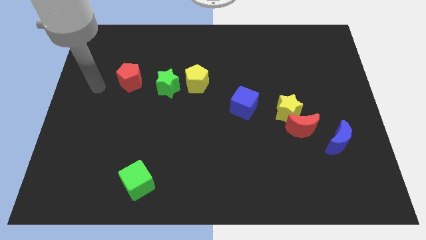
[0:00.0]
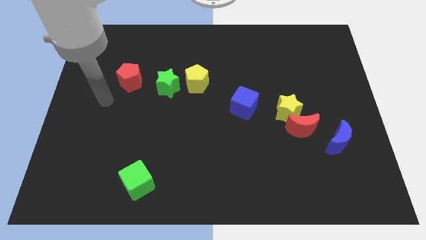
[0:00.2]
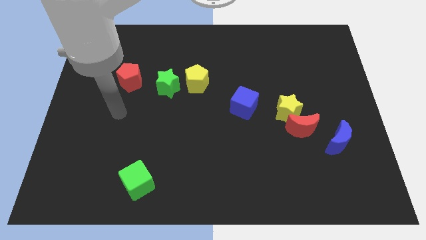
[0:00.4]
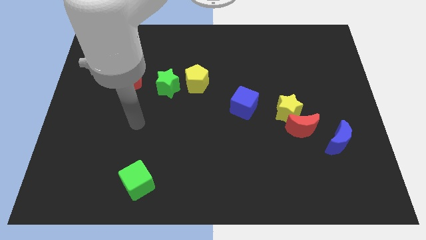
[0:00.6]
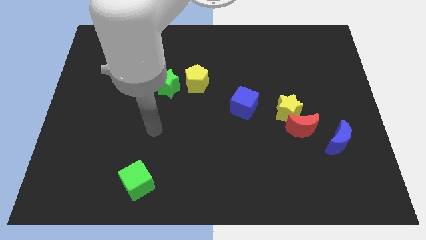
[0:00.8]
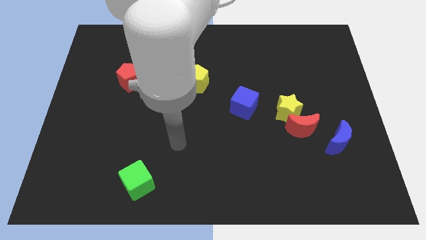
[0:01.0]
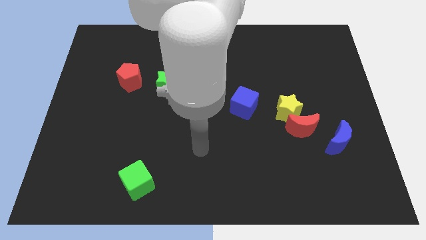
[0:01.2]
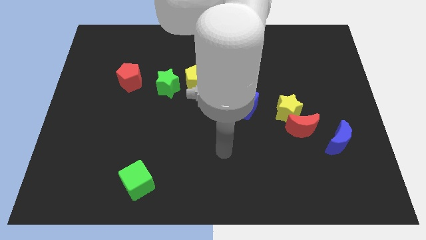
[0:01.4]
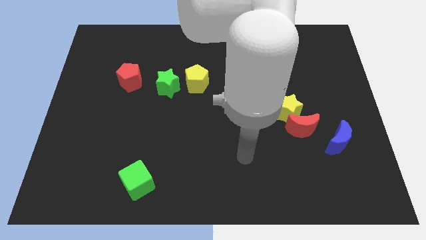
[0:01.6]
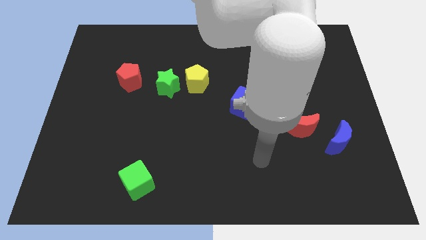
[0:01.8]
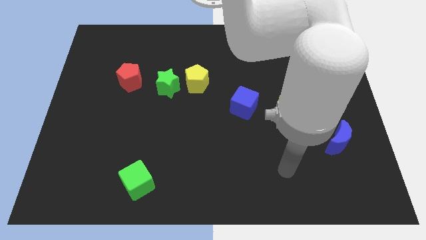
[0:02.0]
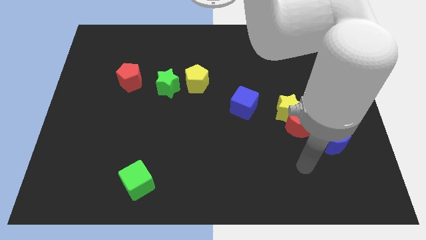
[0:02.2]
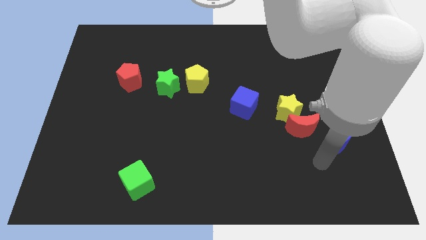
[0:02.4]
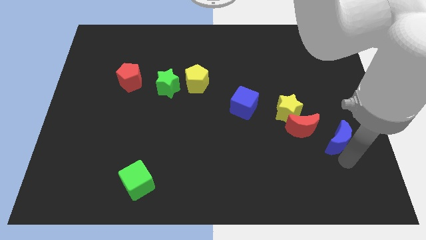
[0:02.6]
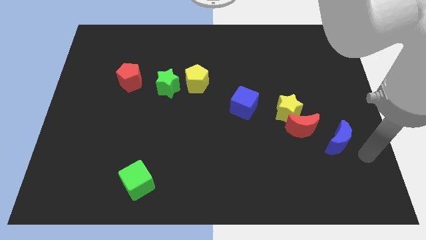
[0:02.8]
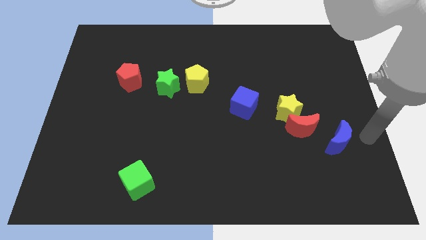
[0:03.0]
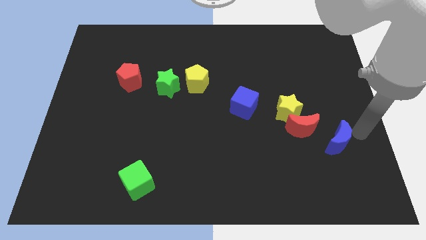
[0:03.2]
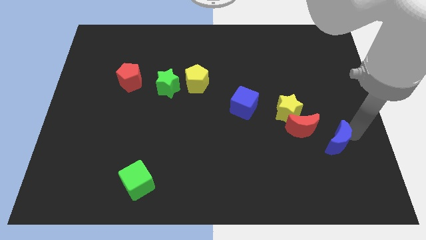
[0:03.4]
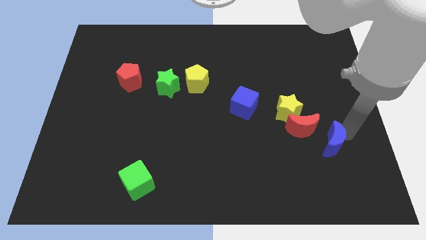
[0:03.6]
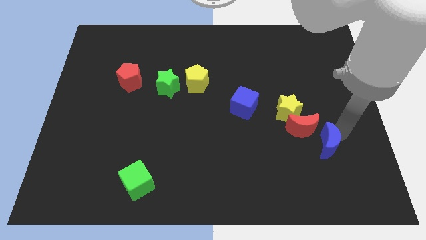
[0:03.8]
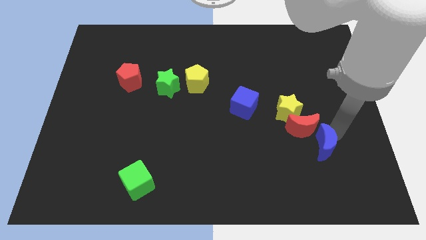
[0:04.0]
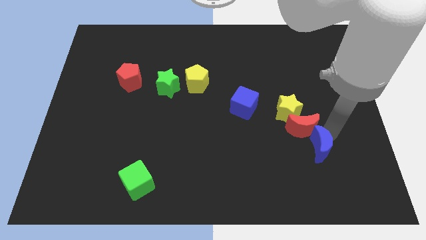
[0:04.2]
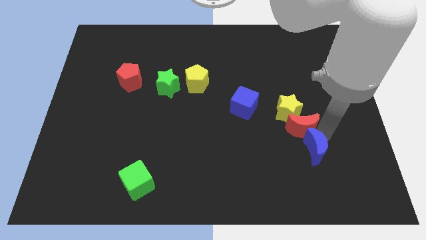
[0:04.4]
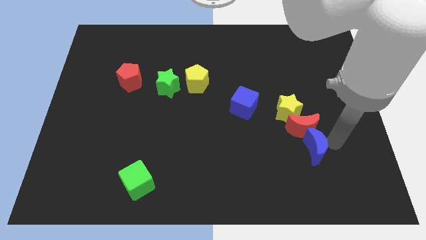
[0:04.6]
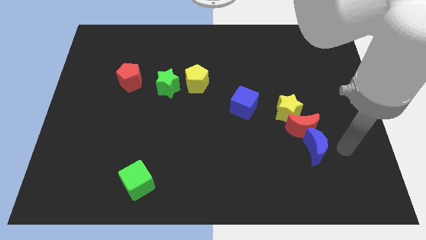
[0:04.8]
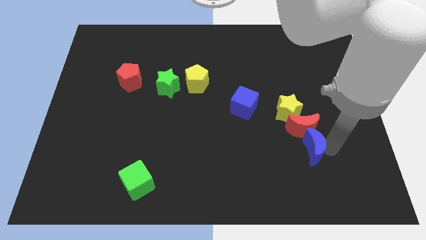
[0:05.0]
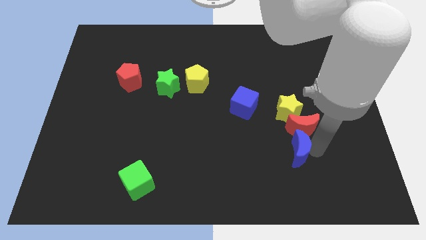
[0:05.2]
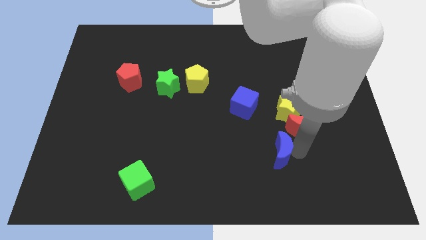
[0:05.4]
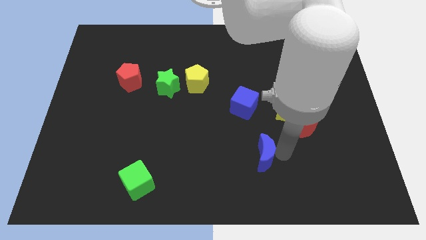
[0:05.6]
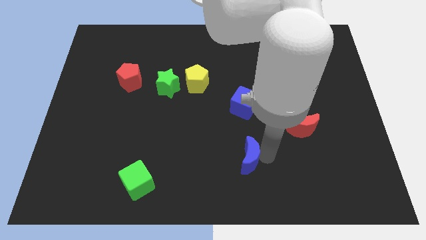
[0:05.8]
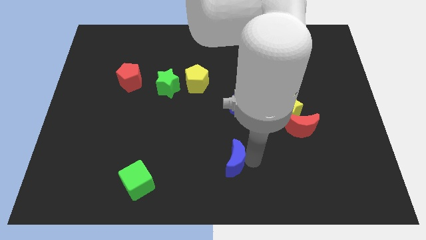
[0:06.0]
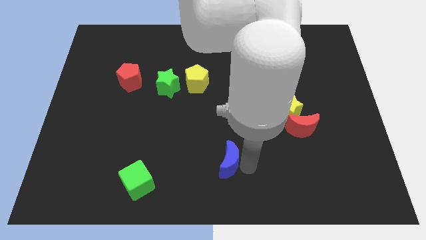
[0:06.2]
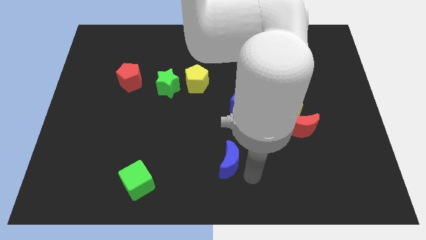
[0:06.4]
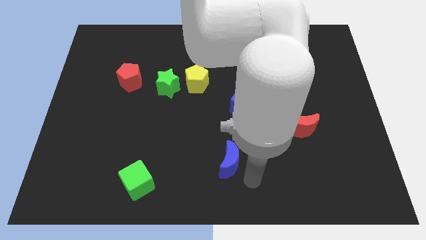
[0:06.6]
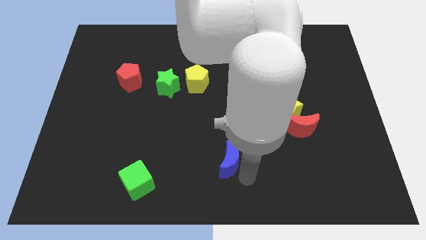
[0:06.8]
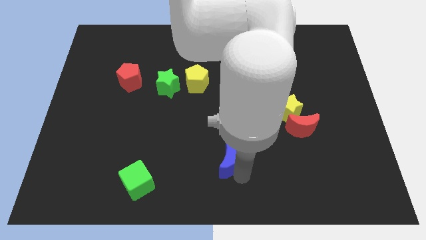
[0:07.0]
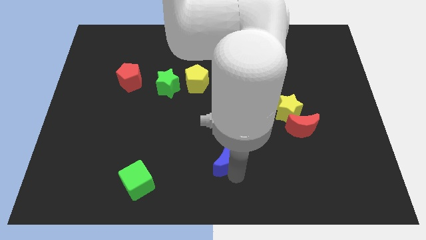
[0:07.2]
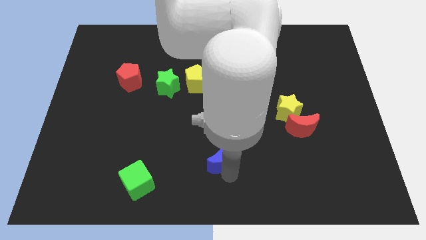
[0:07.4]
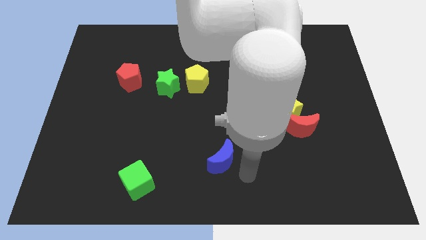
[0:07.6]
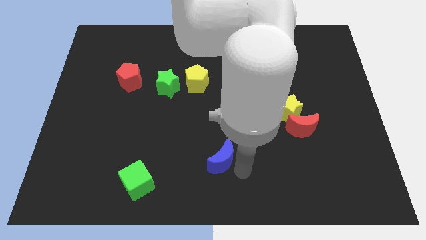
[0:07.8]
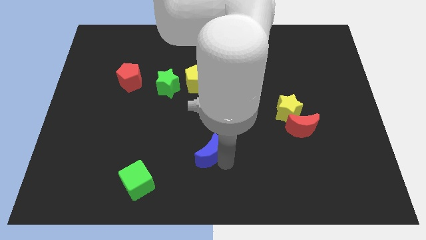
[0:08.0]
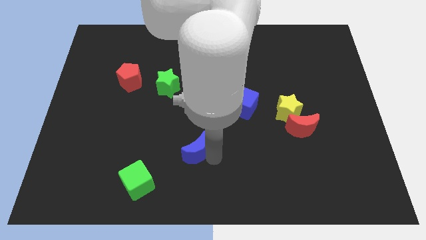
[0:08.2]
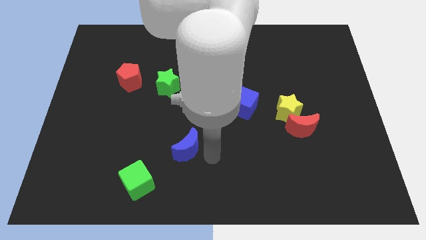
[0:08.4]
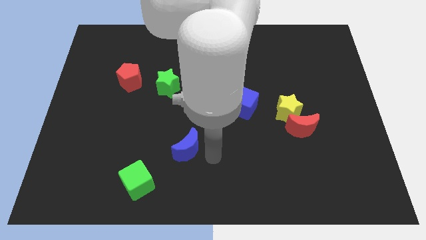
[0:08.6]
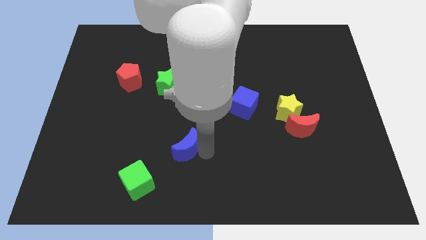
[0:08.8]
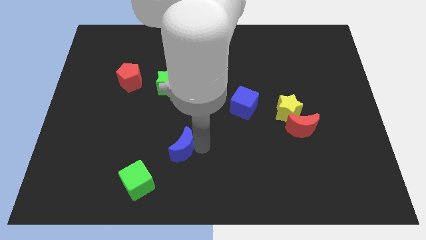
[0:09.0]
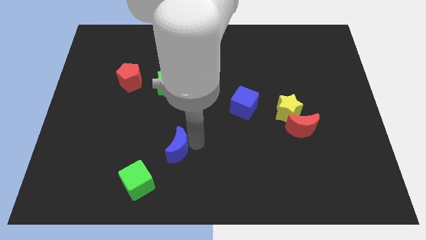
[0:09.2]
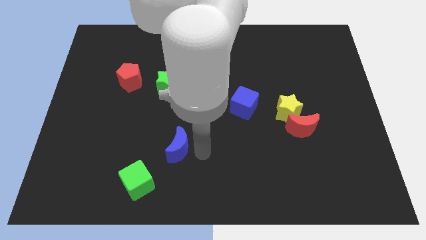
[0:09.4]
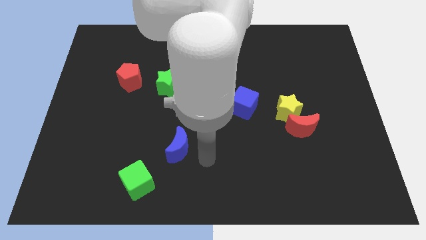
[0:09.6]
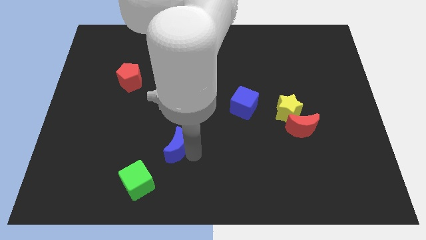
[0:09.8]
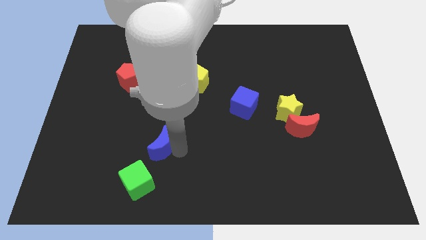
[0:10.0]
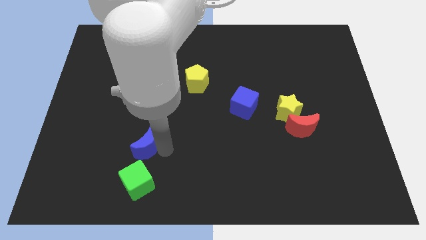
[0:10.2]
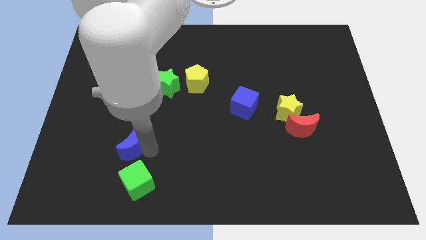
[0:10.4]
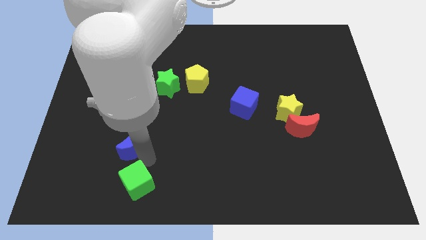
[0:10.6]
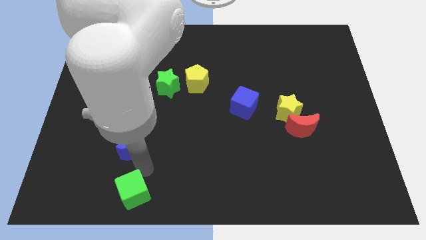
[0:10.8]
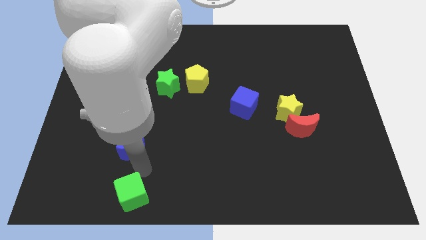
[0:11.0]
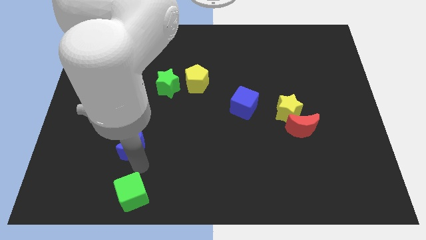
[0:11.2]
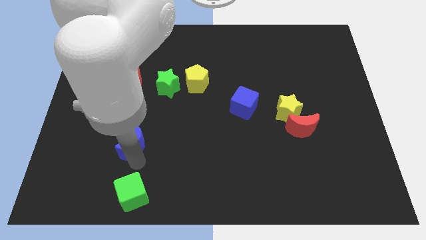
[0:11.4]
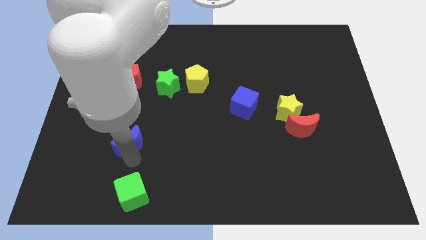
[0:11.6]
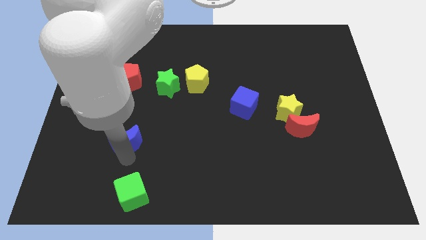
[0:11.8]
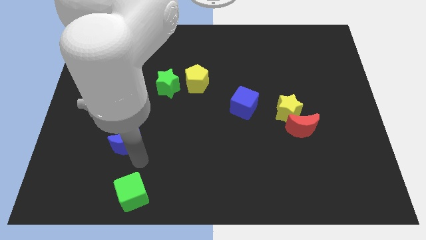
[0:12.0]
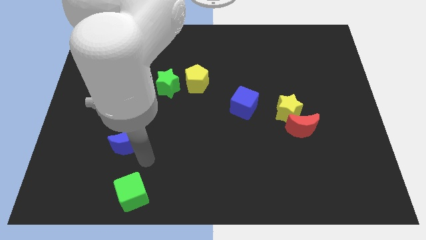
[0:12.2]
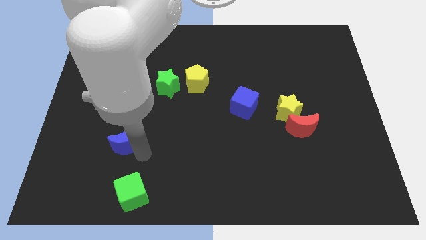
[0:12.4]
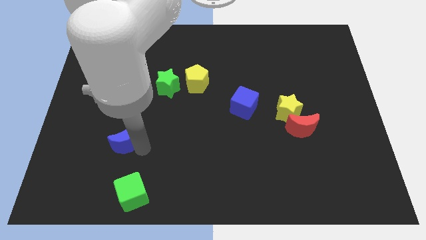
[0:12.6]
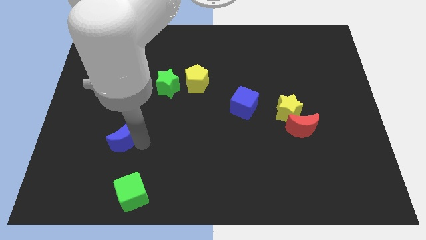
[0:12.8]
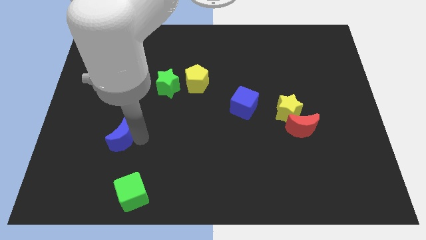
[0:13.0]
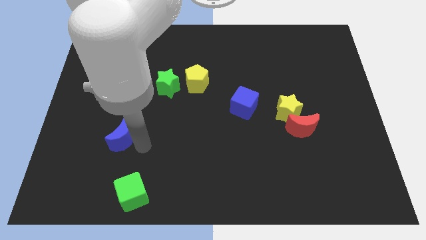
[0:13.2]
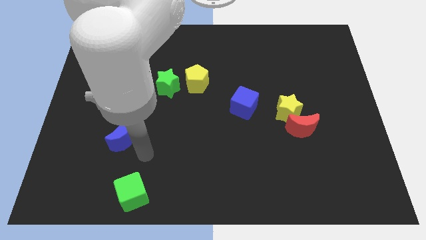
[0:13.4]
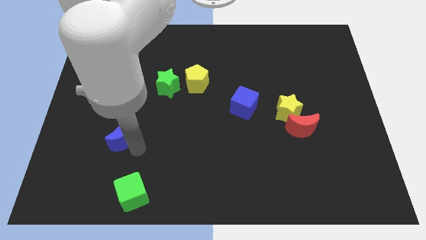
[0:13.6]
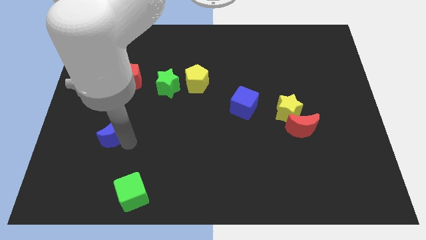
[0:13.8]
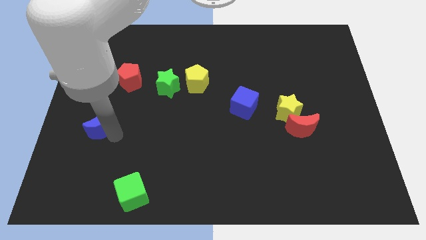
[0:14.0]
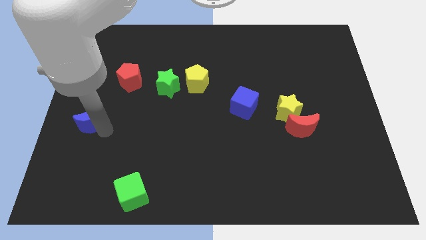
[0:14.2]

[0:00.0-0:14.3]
push the blue moon to the left side of the board

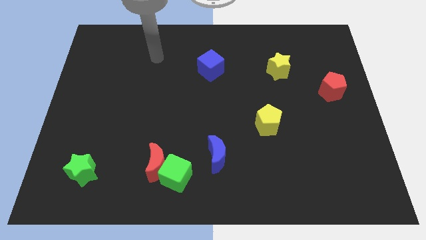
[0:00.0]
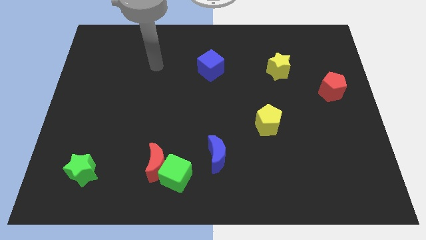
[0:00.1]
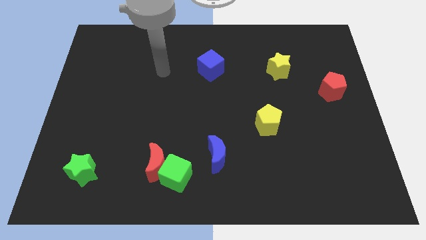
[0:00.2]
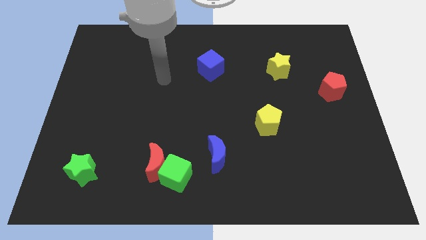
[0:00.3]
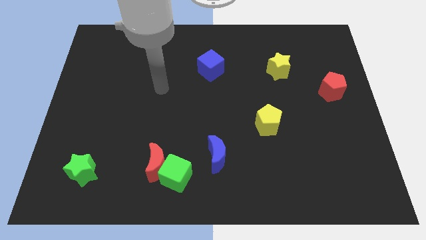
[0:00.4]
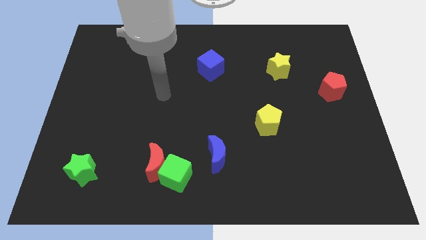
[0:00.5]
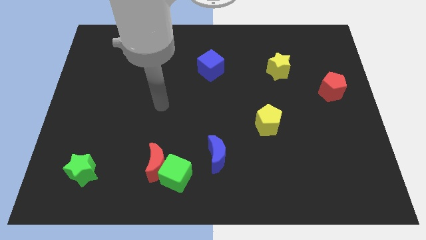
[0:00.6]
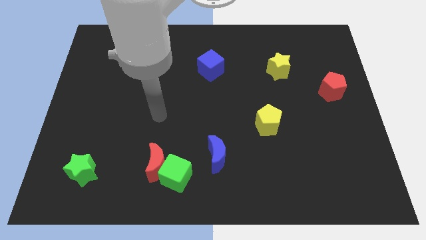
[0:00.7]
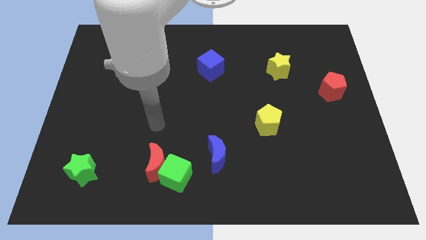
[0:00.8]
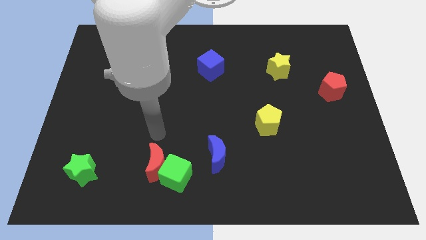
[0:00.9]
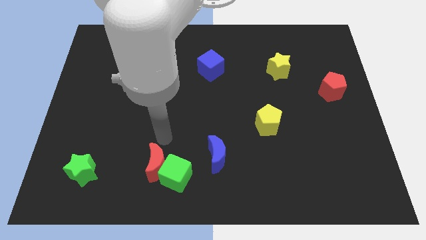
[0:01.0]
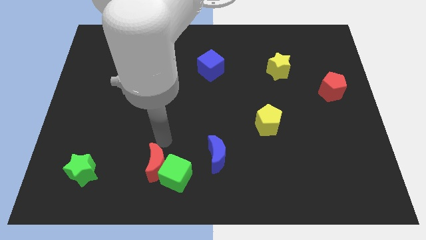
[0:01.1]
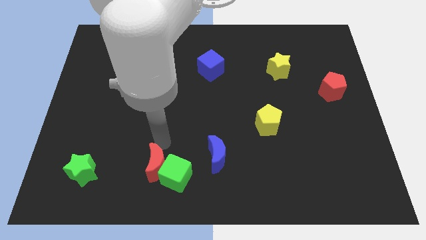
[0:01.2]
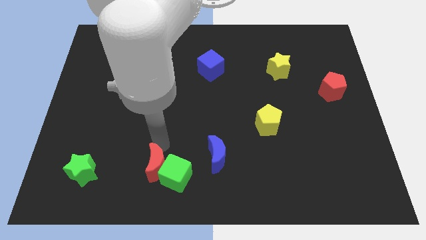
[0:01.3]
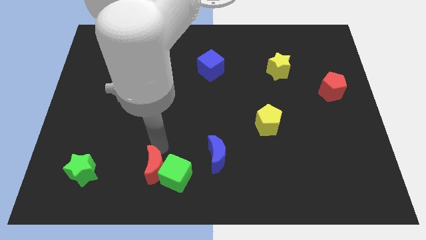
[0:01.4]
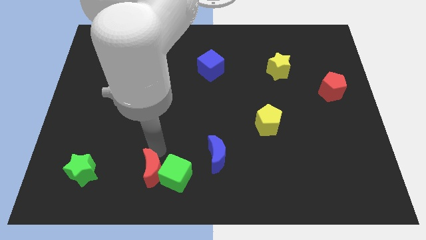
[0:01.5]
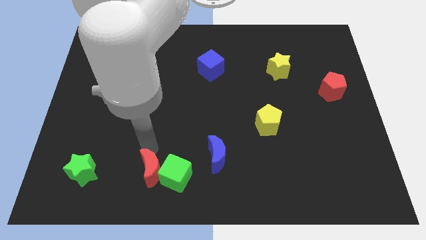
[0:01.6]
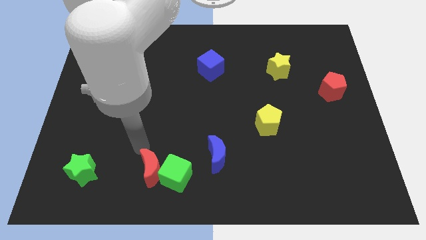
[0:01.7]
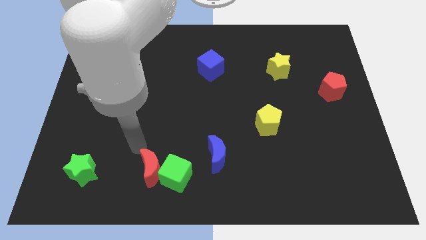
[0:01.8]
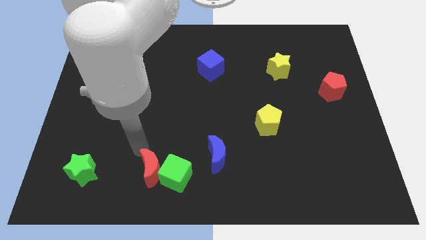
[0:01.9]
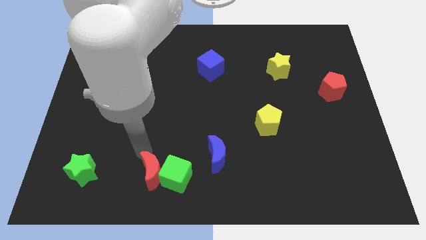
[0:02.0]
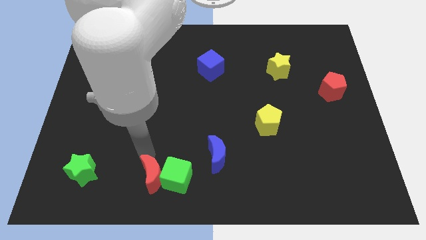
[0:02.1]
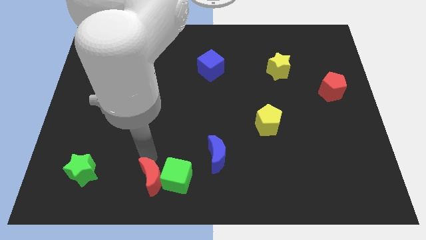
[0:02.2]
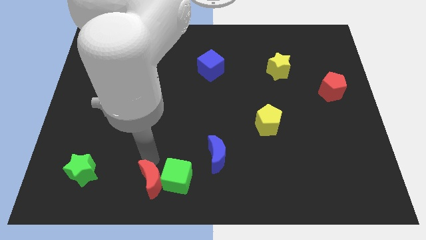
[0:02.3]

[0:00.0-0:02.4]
put the red moon to the bottom side
